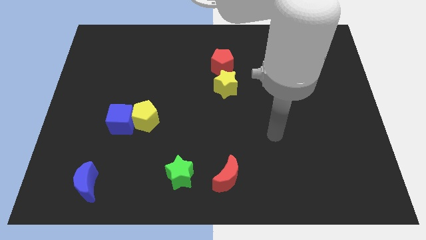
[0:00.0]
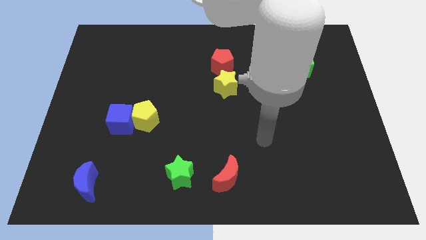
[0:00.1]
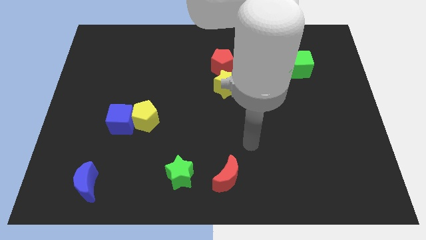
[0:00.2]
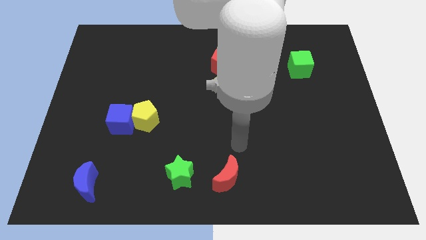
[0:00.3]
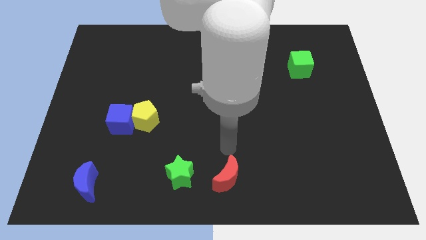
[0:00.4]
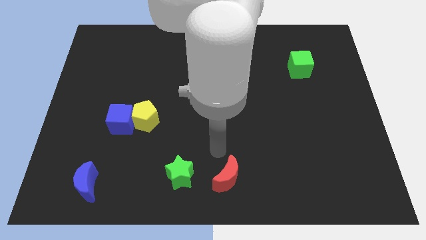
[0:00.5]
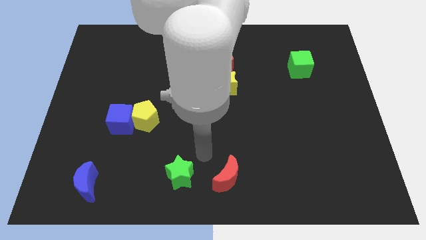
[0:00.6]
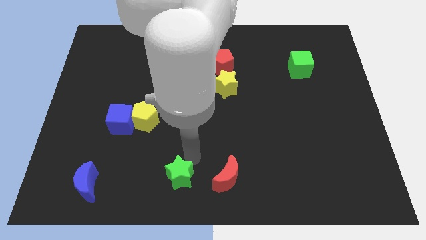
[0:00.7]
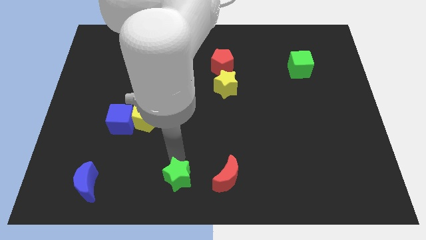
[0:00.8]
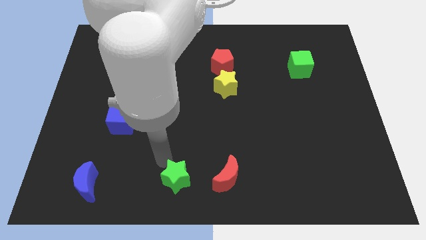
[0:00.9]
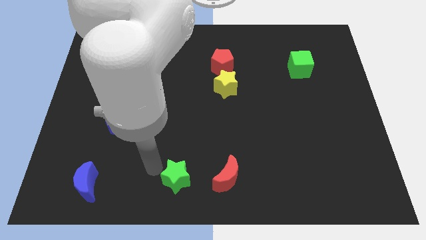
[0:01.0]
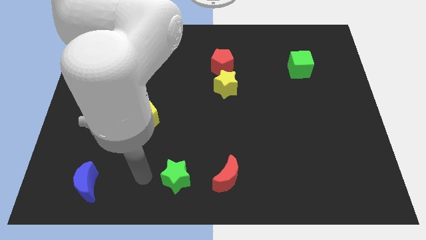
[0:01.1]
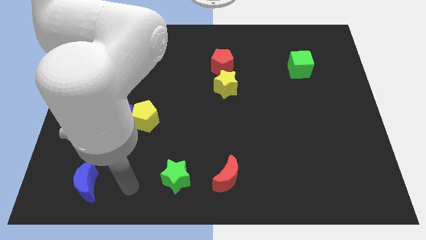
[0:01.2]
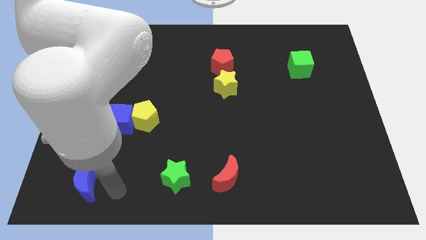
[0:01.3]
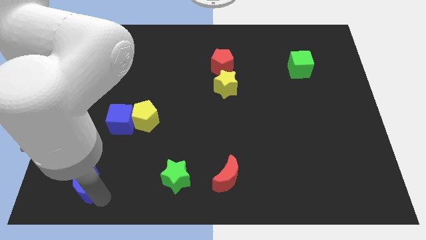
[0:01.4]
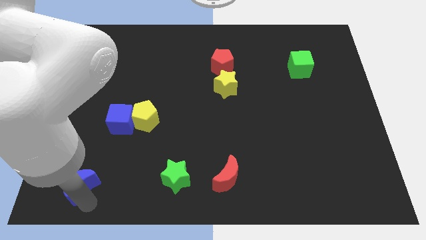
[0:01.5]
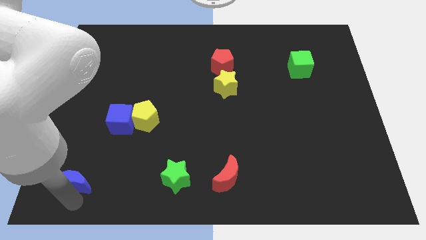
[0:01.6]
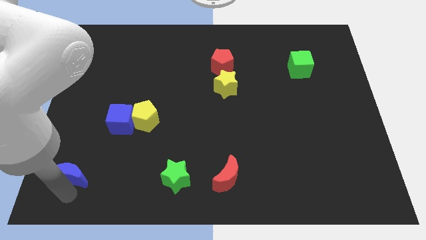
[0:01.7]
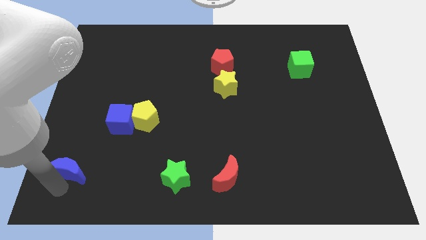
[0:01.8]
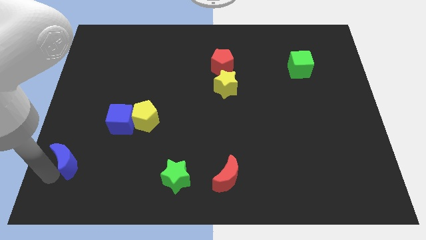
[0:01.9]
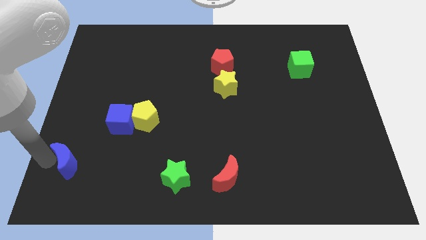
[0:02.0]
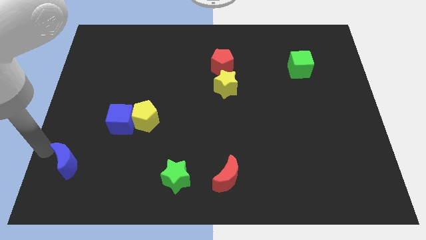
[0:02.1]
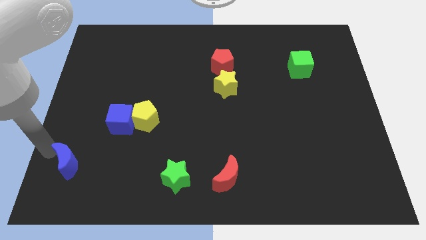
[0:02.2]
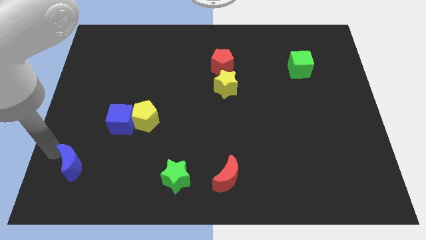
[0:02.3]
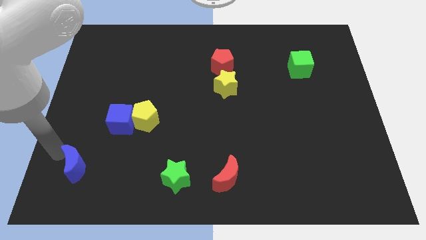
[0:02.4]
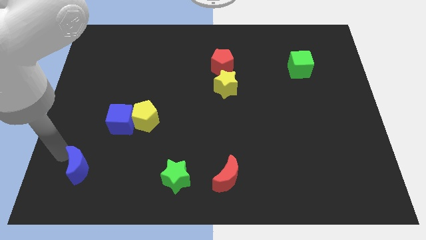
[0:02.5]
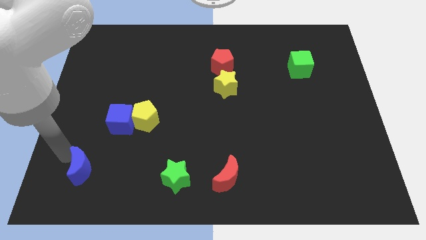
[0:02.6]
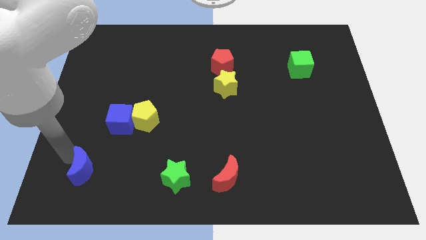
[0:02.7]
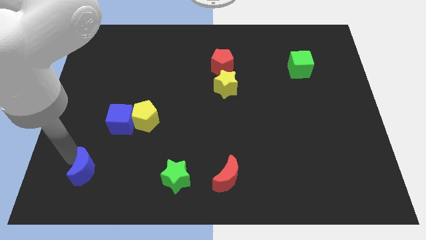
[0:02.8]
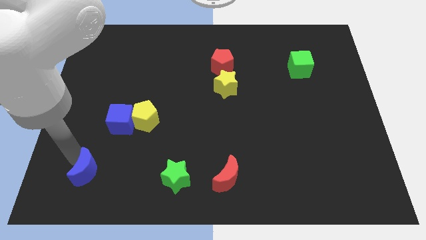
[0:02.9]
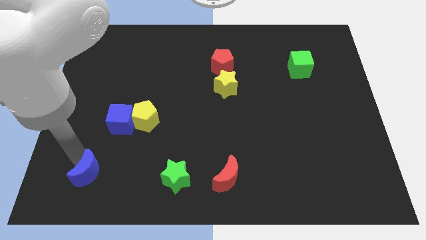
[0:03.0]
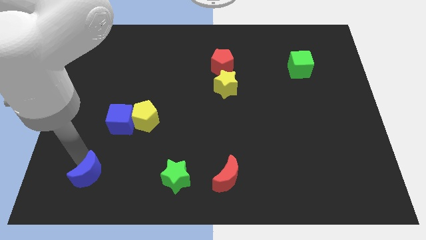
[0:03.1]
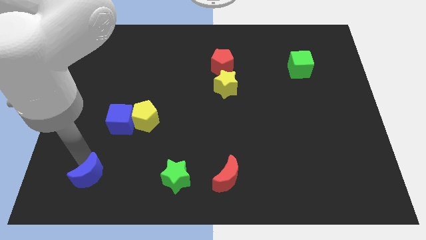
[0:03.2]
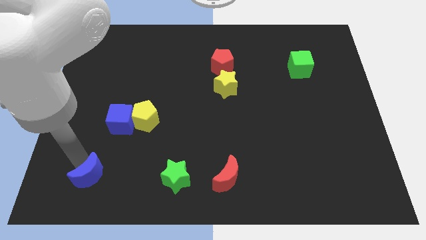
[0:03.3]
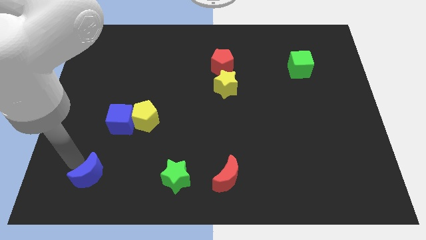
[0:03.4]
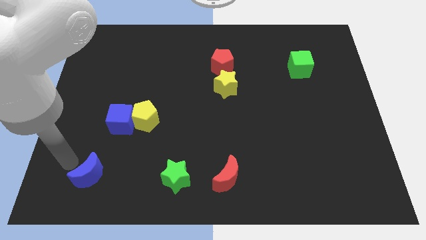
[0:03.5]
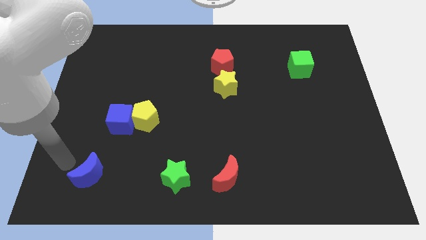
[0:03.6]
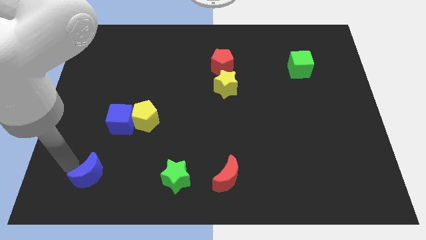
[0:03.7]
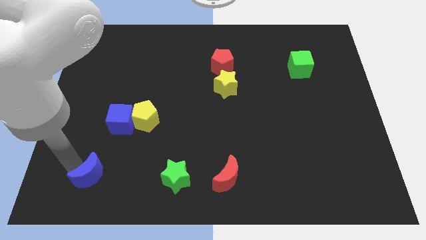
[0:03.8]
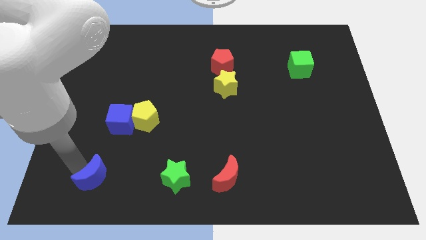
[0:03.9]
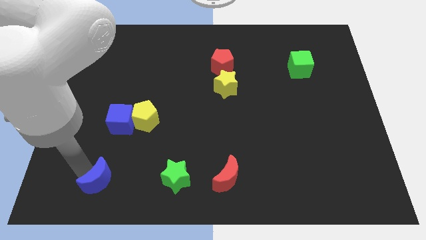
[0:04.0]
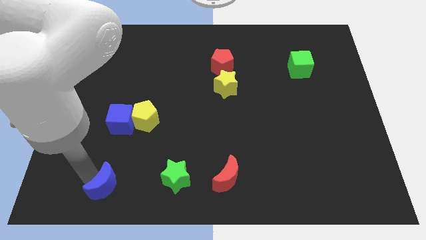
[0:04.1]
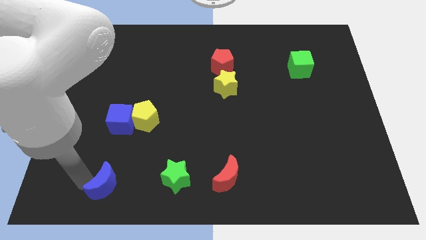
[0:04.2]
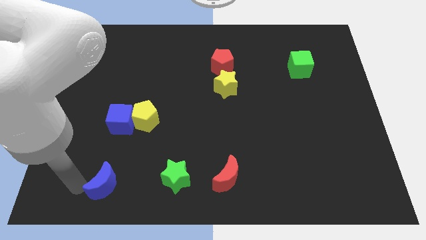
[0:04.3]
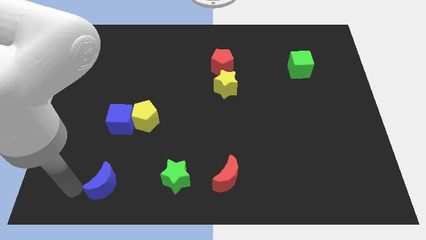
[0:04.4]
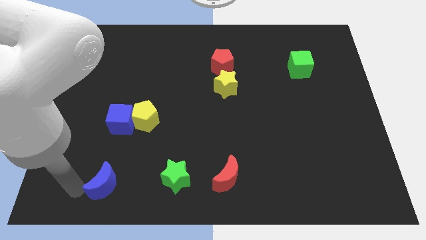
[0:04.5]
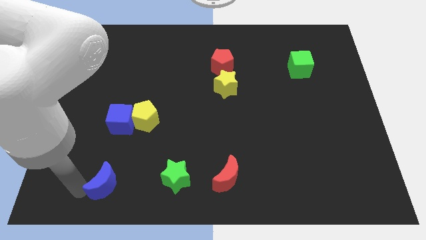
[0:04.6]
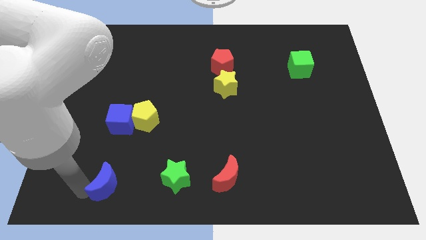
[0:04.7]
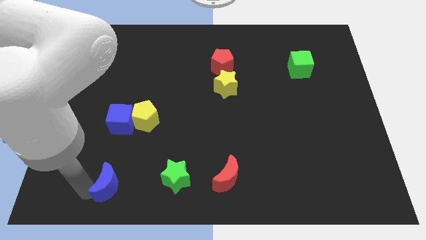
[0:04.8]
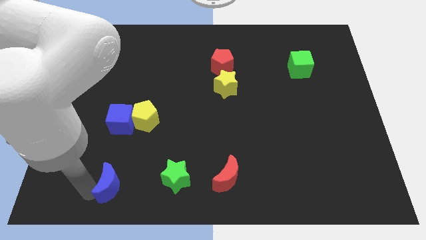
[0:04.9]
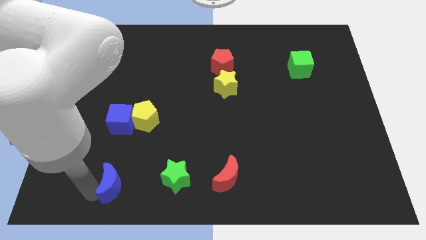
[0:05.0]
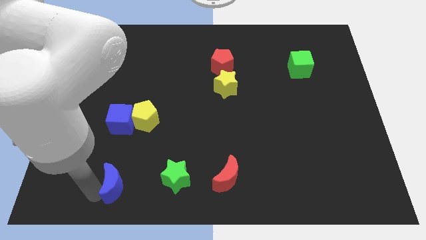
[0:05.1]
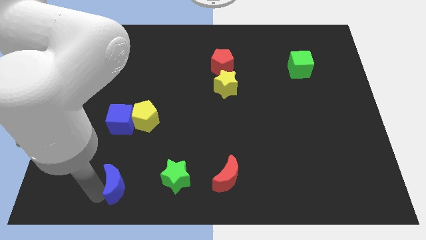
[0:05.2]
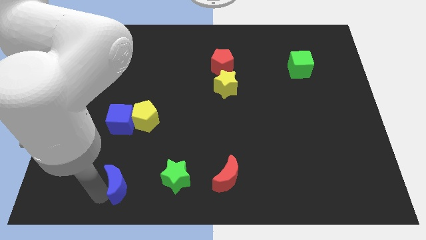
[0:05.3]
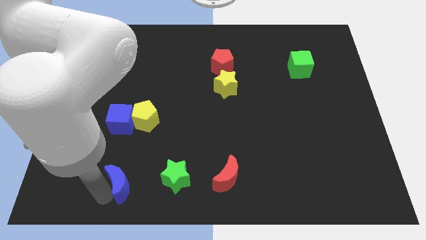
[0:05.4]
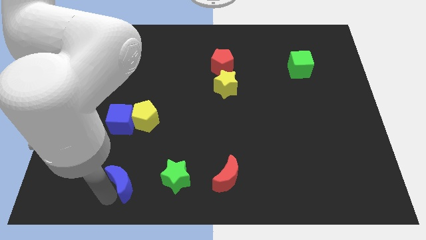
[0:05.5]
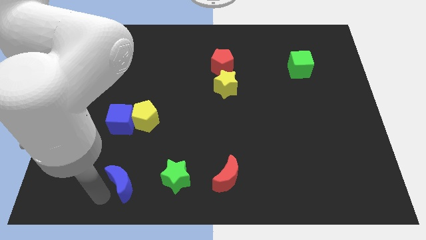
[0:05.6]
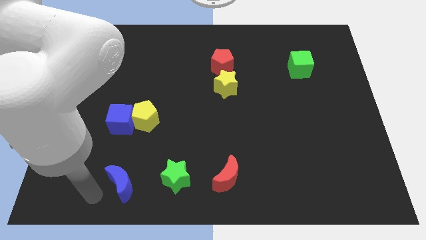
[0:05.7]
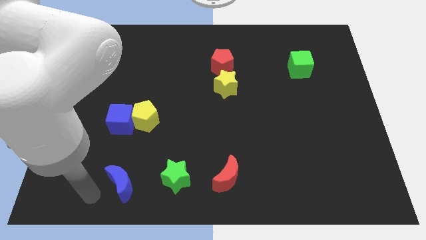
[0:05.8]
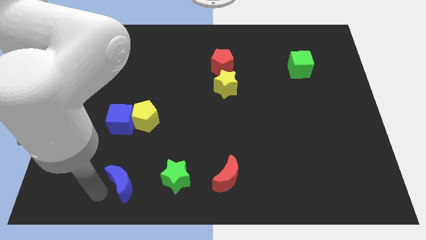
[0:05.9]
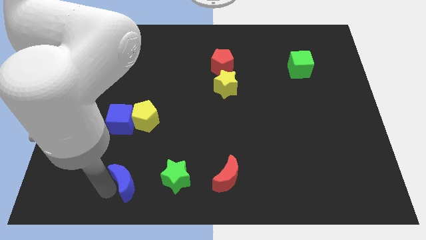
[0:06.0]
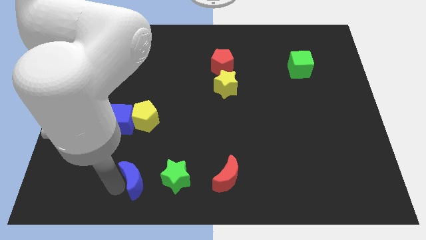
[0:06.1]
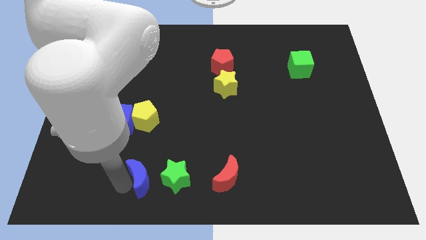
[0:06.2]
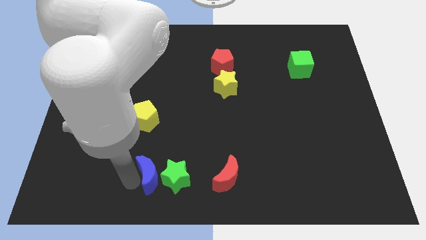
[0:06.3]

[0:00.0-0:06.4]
move the blue moon next to the green star

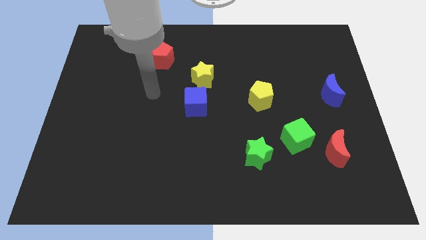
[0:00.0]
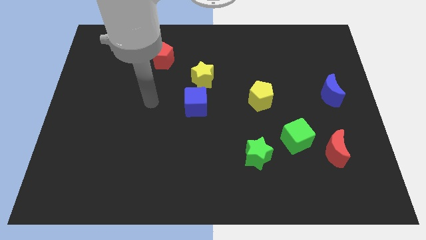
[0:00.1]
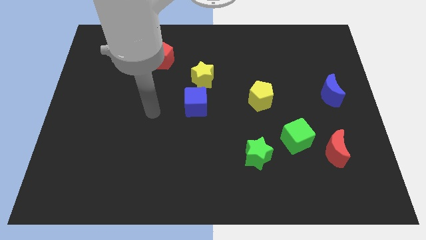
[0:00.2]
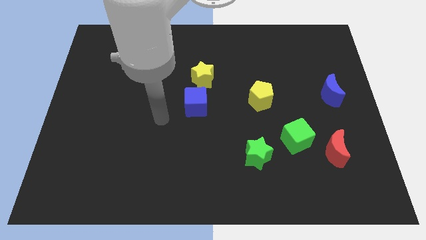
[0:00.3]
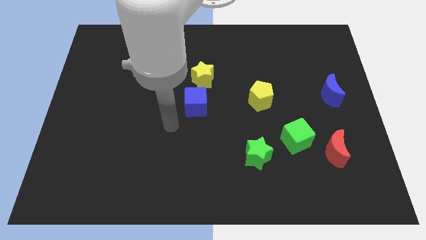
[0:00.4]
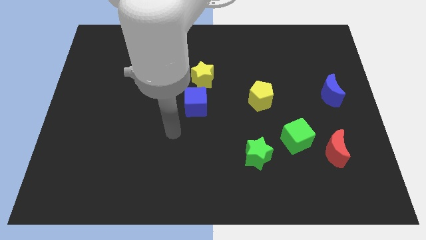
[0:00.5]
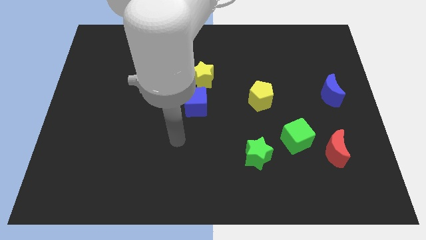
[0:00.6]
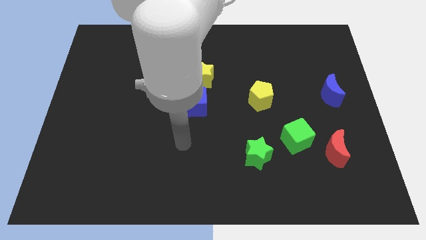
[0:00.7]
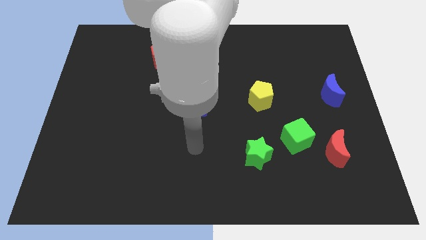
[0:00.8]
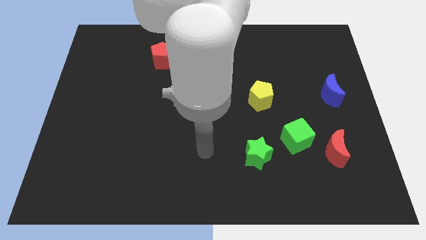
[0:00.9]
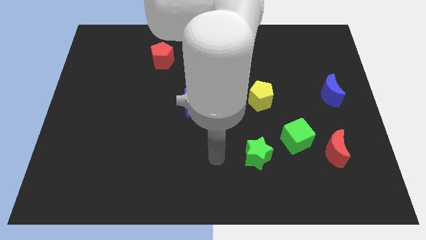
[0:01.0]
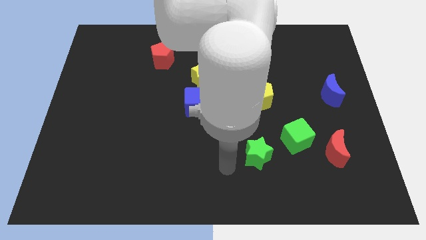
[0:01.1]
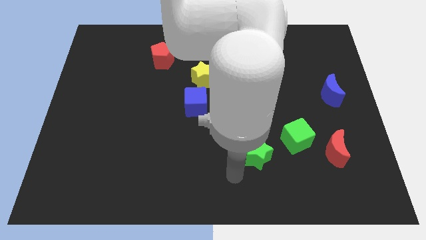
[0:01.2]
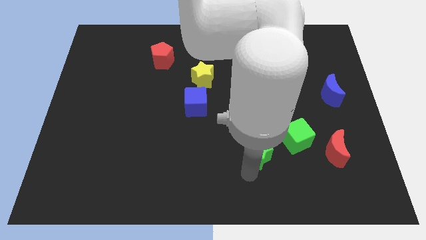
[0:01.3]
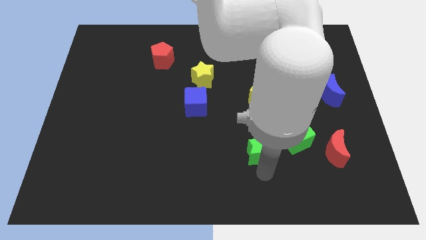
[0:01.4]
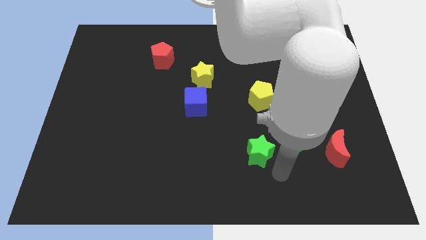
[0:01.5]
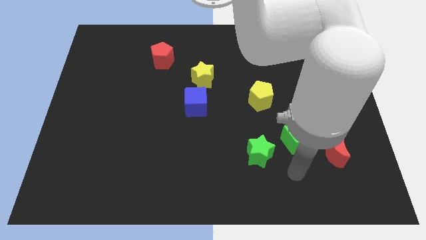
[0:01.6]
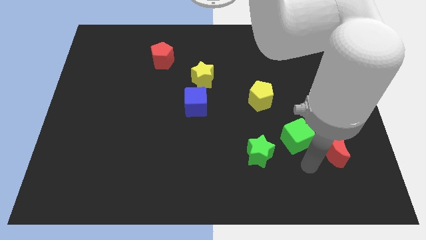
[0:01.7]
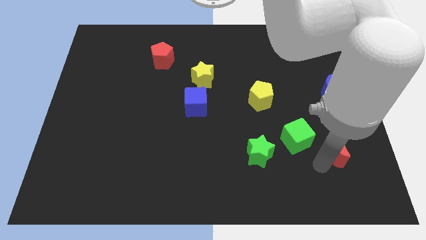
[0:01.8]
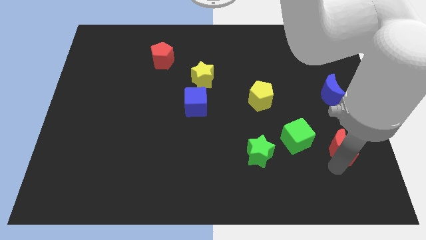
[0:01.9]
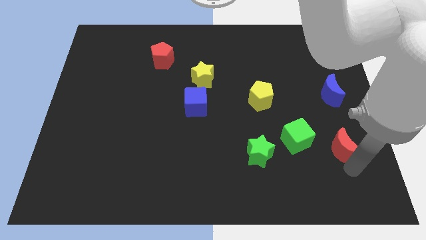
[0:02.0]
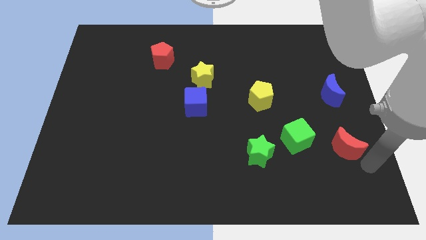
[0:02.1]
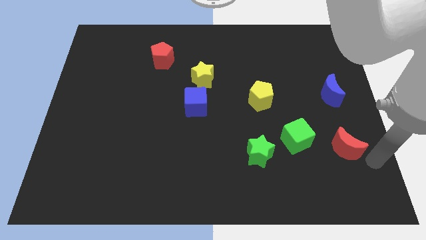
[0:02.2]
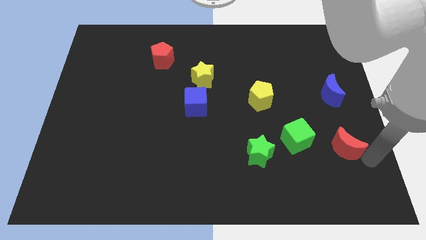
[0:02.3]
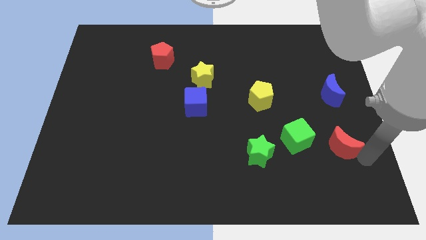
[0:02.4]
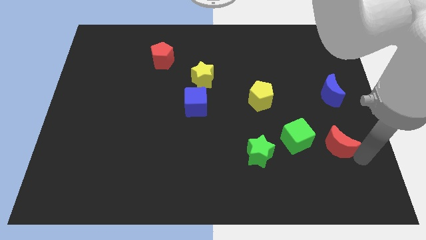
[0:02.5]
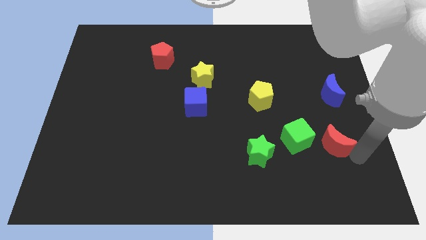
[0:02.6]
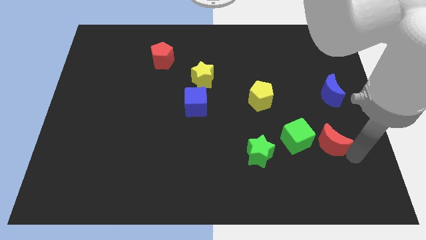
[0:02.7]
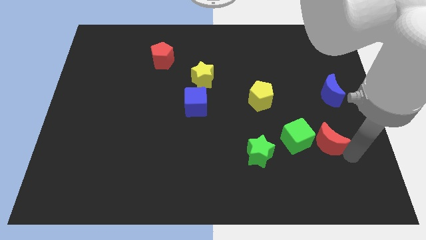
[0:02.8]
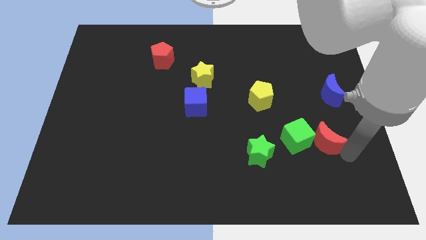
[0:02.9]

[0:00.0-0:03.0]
push the red moon next to the green cube
